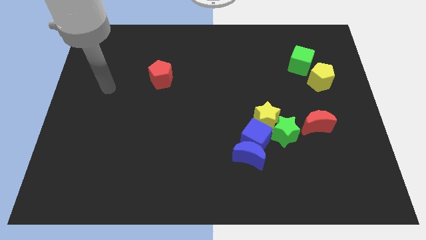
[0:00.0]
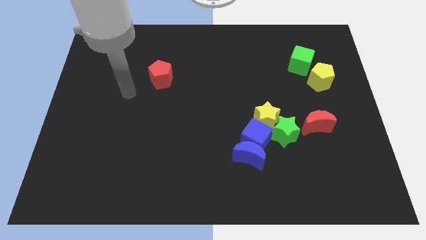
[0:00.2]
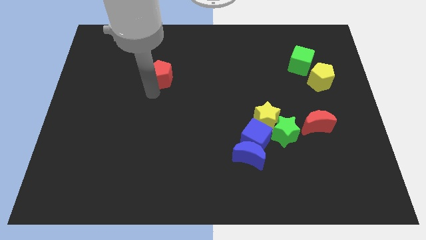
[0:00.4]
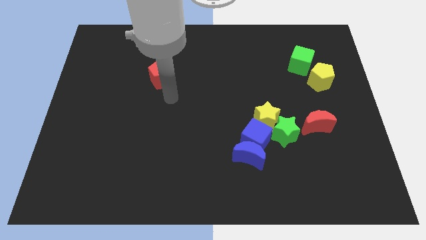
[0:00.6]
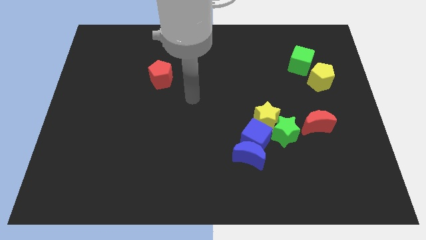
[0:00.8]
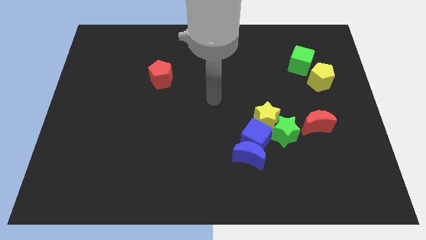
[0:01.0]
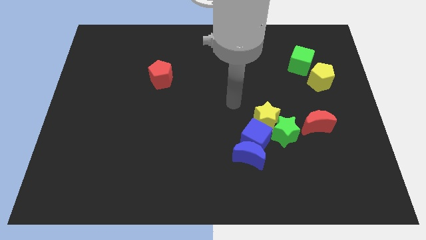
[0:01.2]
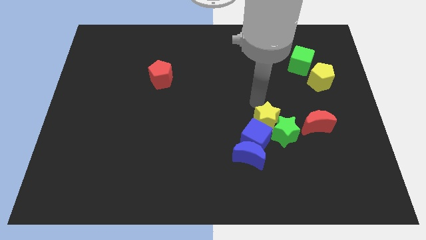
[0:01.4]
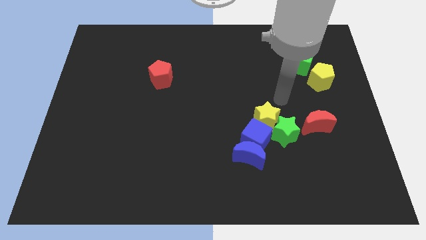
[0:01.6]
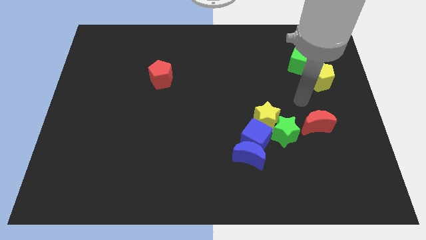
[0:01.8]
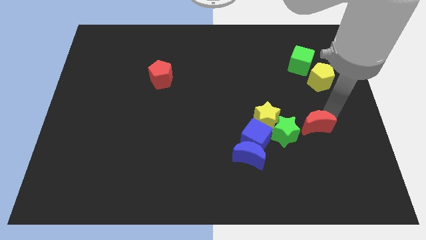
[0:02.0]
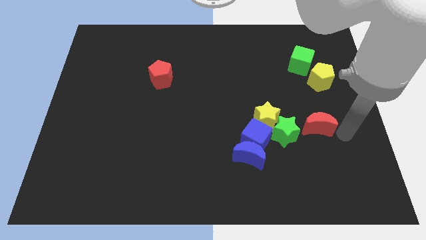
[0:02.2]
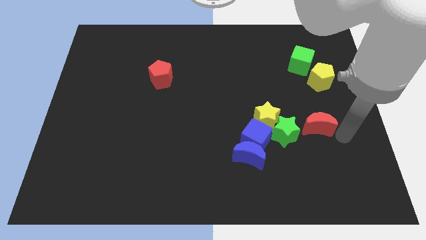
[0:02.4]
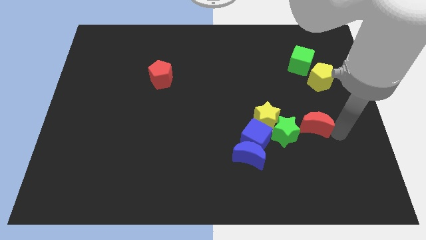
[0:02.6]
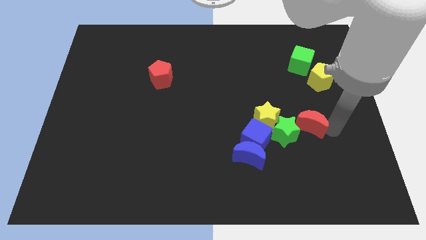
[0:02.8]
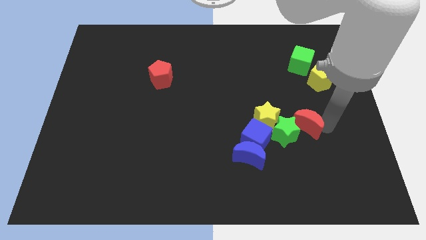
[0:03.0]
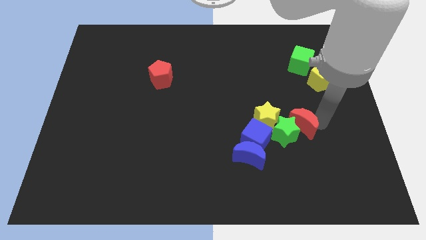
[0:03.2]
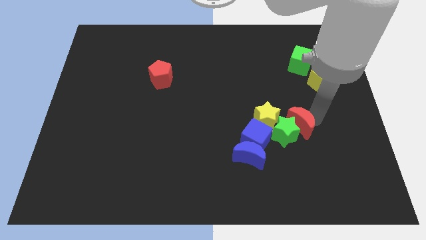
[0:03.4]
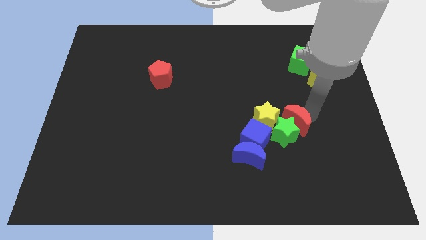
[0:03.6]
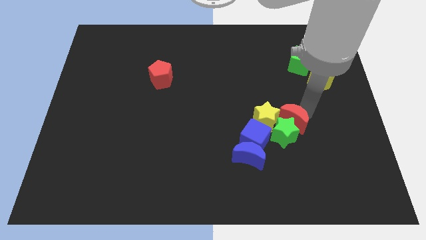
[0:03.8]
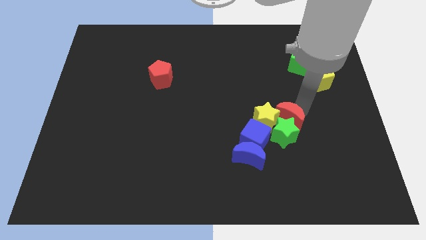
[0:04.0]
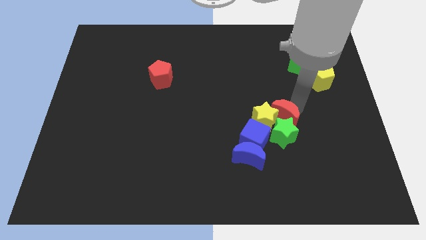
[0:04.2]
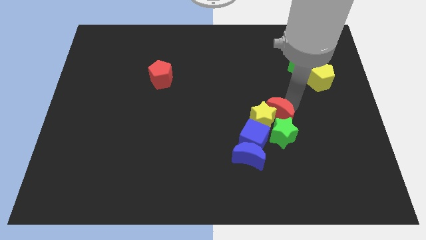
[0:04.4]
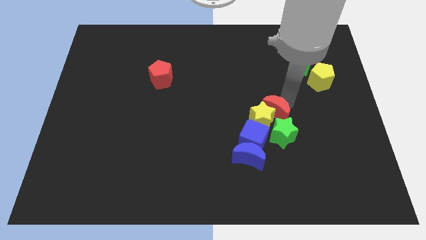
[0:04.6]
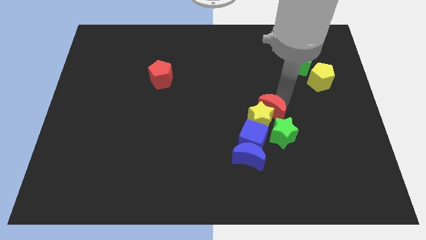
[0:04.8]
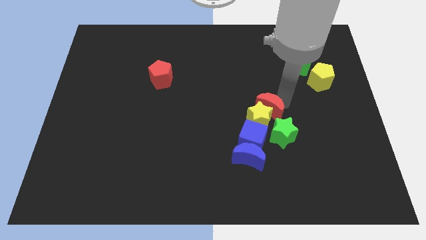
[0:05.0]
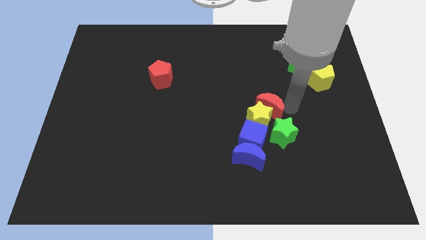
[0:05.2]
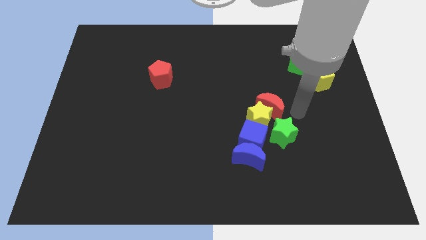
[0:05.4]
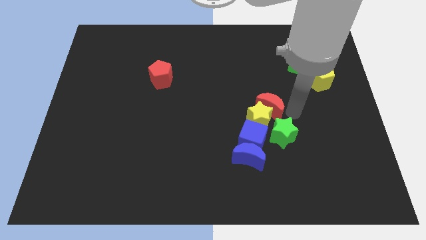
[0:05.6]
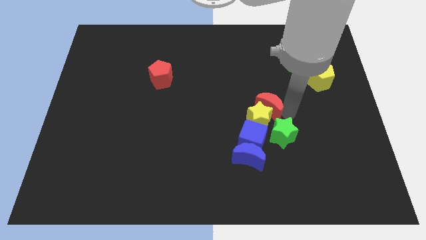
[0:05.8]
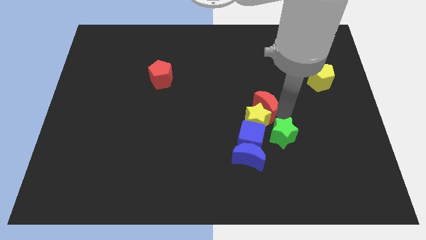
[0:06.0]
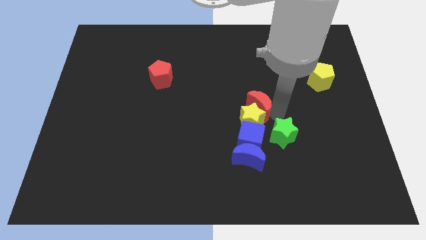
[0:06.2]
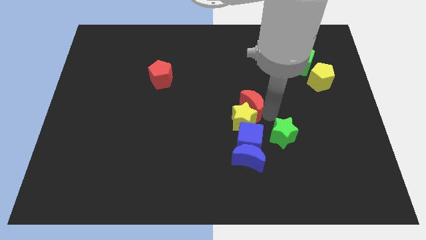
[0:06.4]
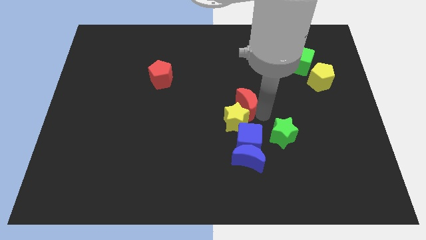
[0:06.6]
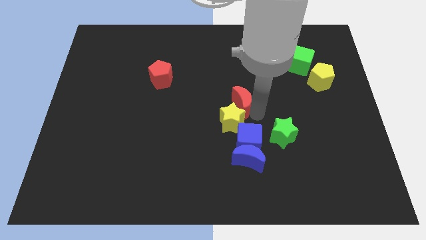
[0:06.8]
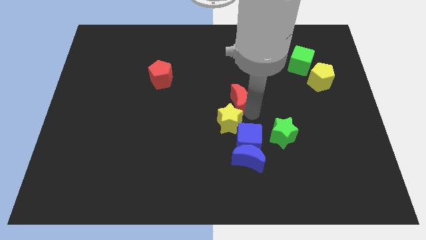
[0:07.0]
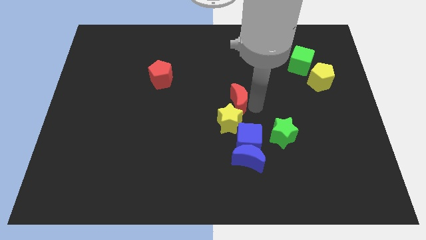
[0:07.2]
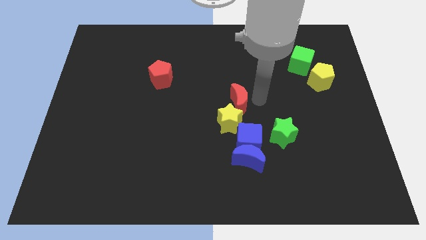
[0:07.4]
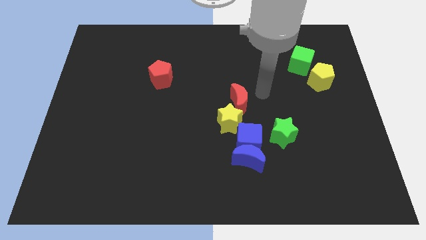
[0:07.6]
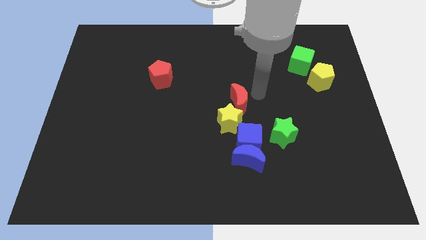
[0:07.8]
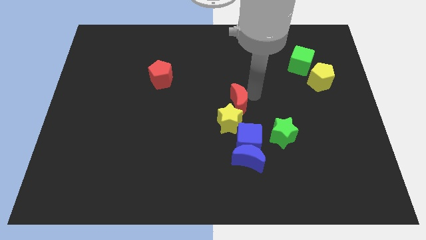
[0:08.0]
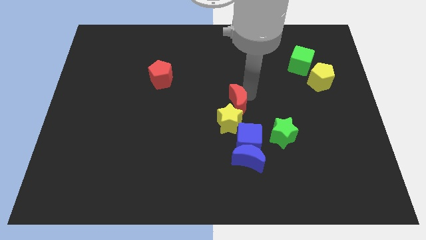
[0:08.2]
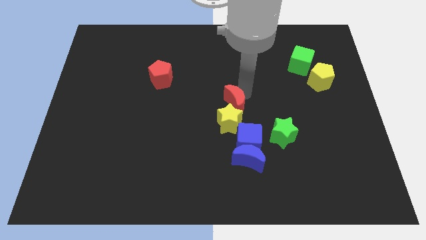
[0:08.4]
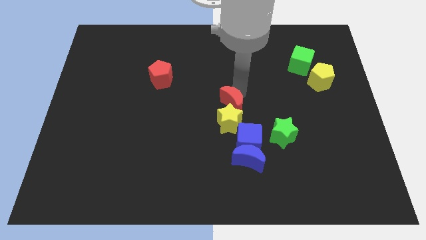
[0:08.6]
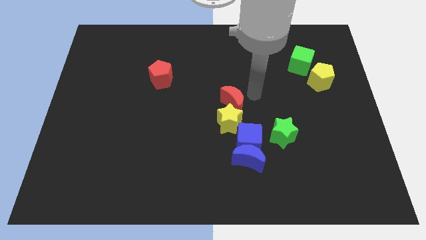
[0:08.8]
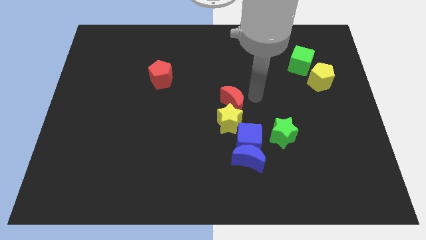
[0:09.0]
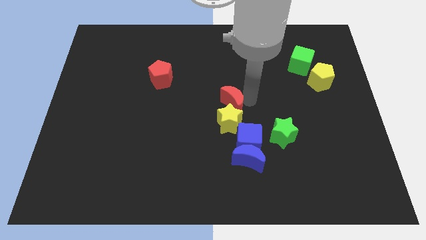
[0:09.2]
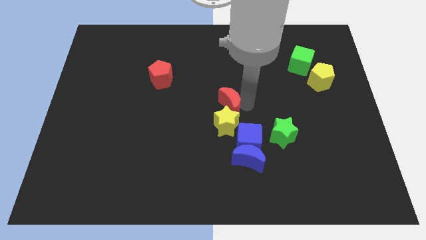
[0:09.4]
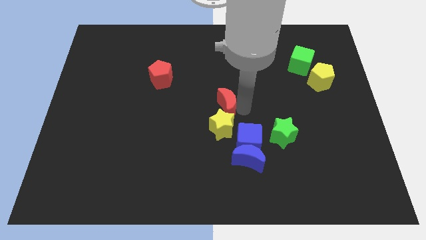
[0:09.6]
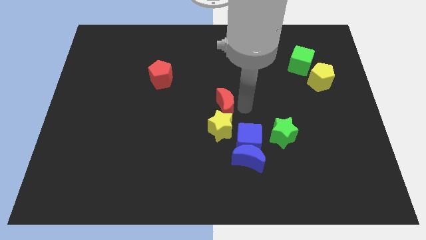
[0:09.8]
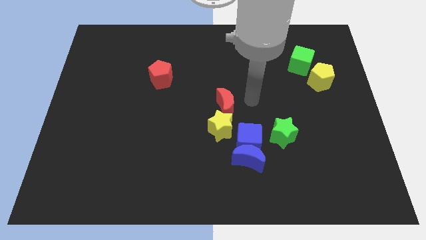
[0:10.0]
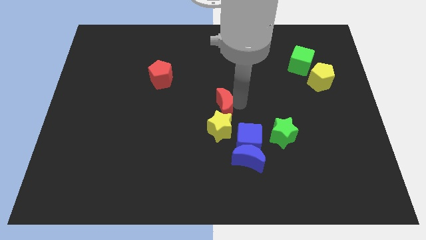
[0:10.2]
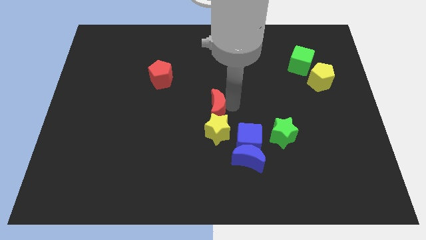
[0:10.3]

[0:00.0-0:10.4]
slide the red moon left

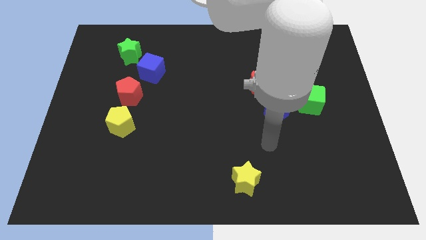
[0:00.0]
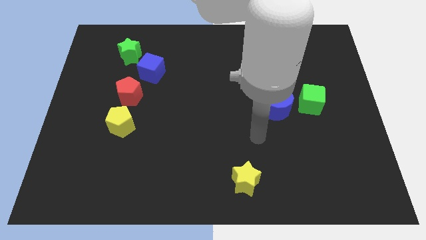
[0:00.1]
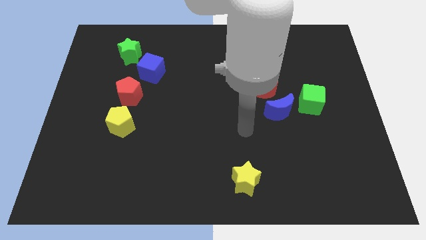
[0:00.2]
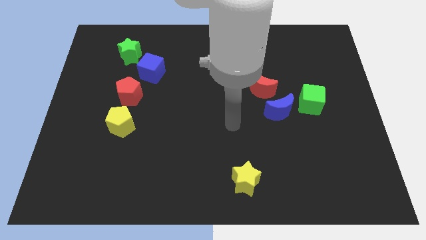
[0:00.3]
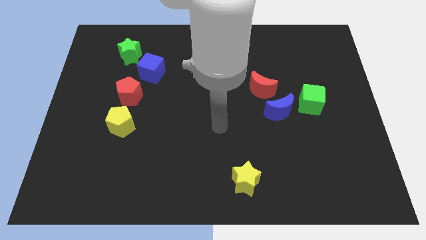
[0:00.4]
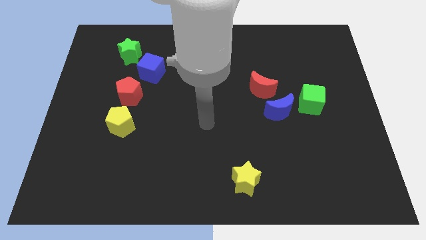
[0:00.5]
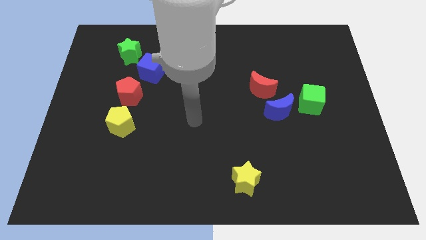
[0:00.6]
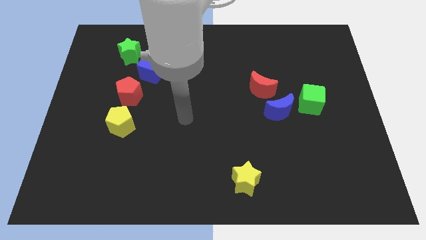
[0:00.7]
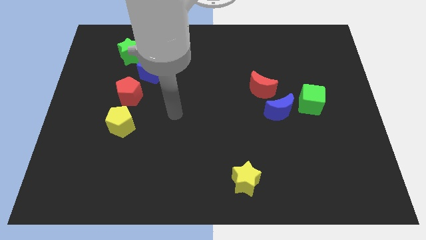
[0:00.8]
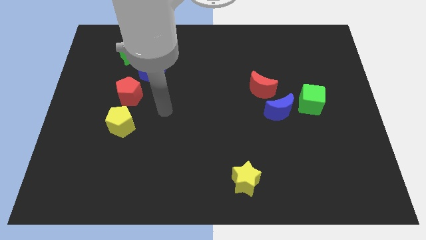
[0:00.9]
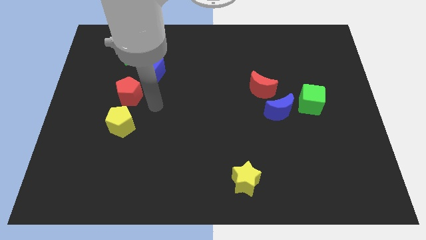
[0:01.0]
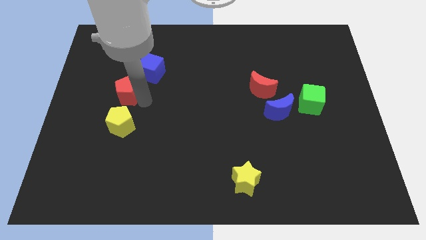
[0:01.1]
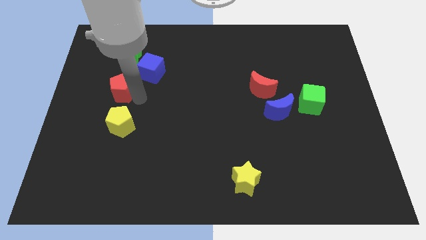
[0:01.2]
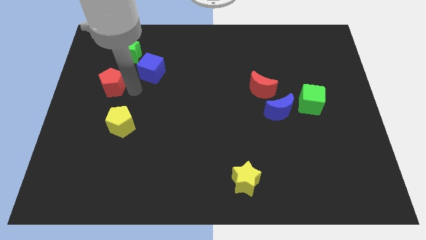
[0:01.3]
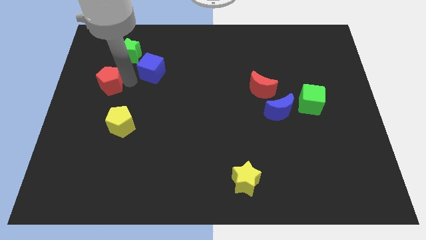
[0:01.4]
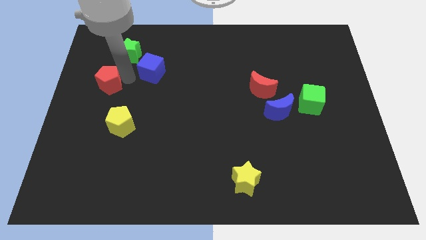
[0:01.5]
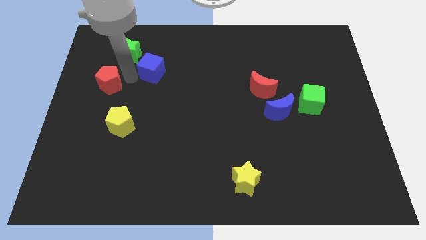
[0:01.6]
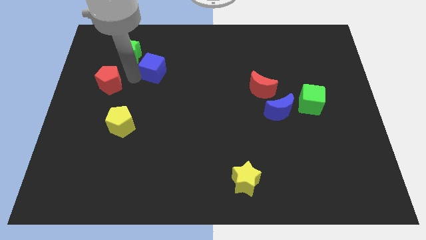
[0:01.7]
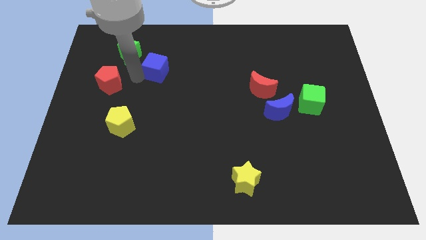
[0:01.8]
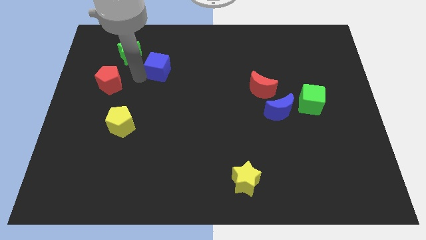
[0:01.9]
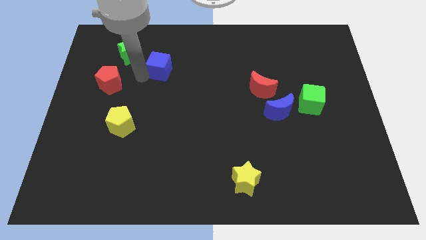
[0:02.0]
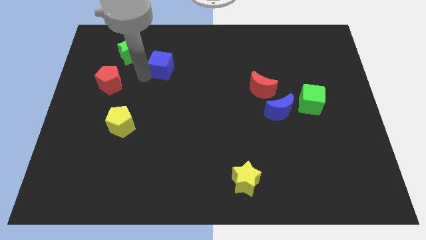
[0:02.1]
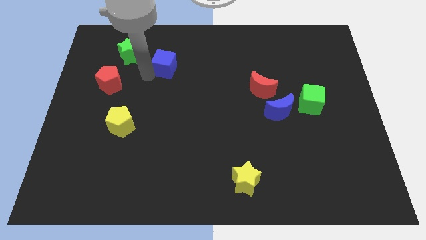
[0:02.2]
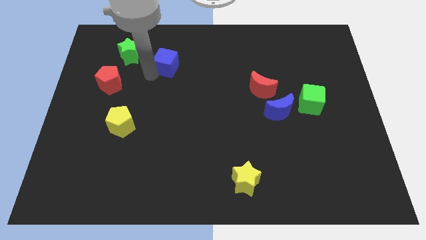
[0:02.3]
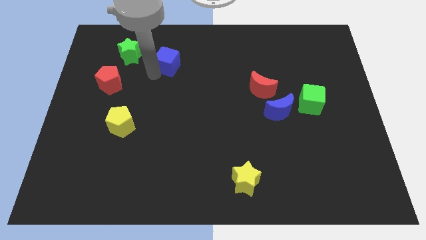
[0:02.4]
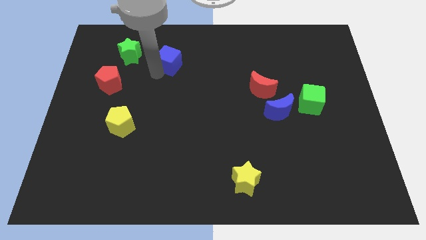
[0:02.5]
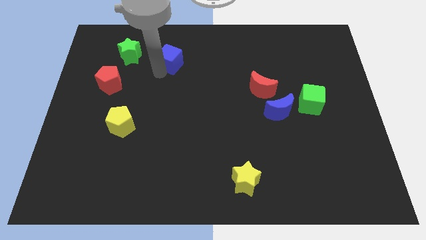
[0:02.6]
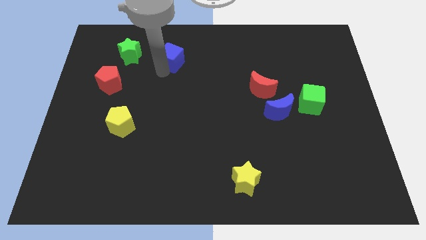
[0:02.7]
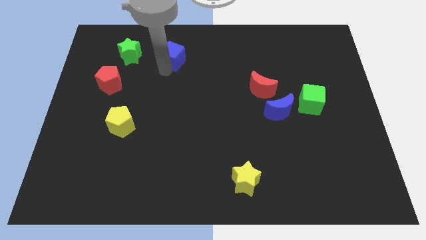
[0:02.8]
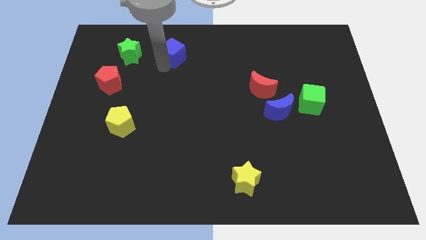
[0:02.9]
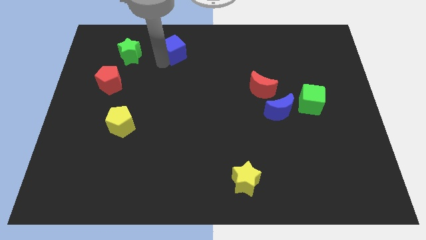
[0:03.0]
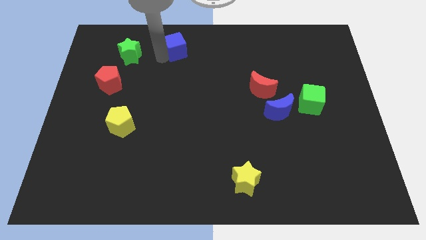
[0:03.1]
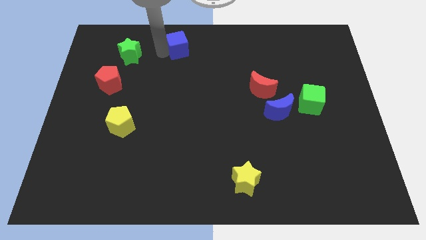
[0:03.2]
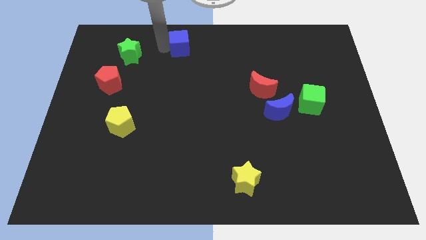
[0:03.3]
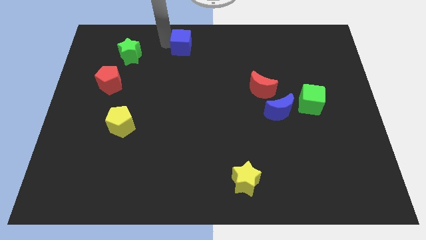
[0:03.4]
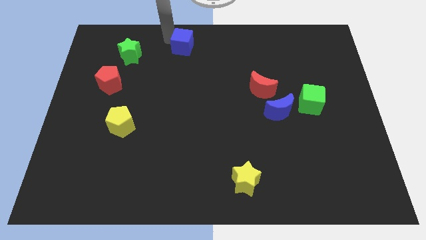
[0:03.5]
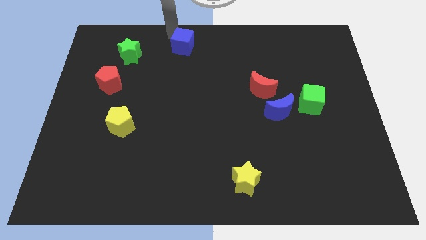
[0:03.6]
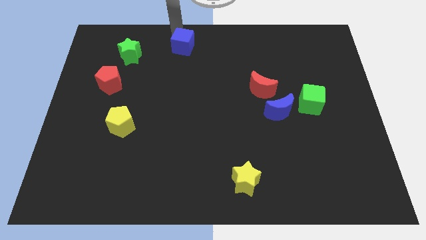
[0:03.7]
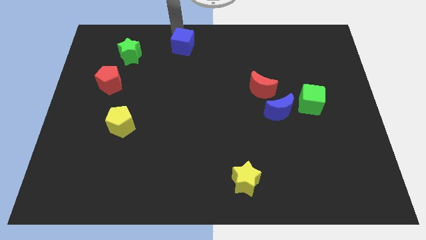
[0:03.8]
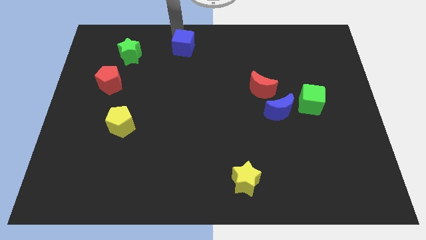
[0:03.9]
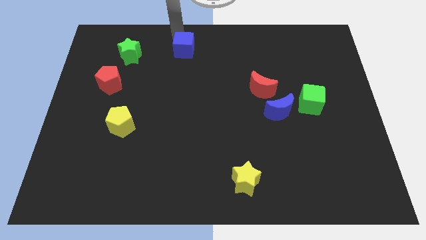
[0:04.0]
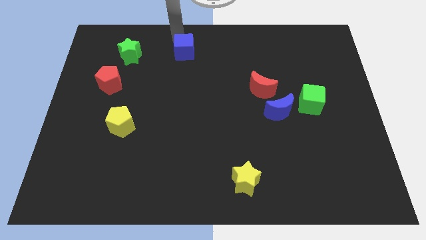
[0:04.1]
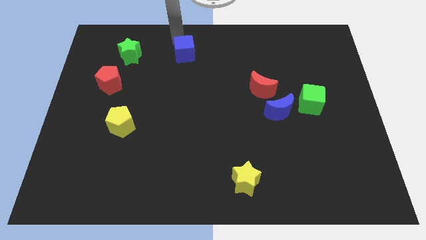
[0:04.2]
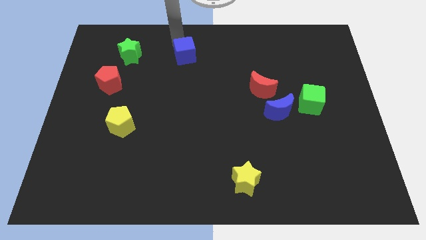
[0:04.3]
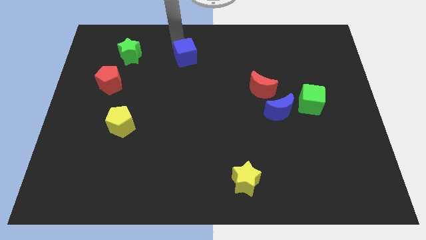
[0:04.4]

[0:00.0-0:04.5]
slightly push the blue cube to the right
